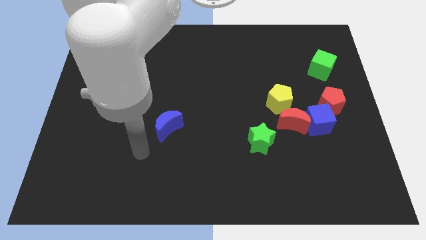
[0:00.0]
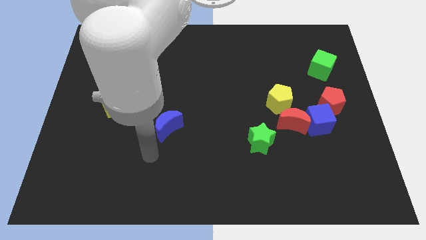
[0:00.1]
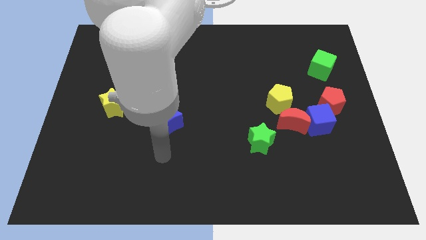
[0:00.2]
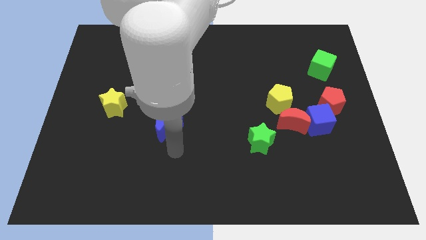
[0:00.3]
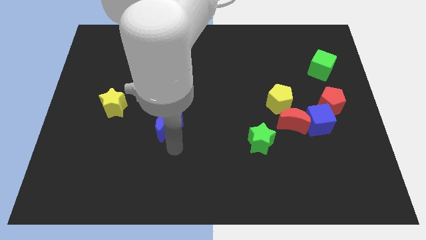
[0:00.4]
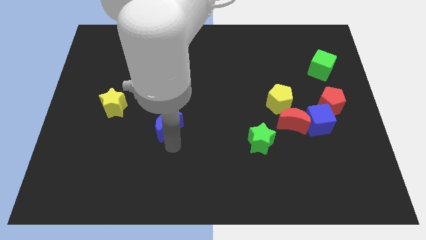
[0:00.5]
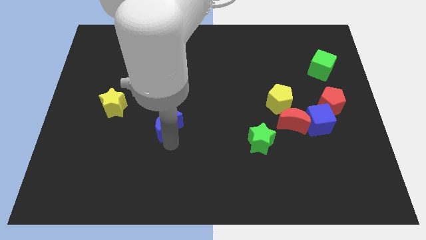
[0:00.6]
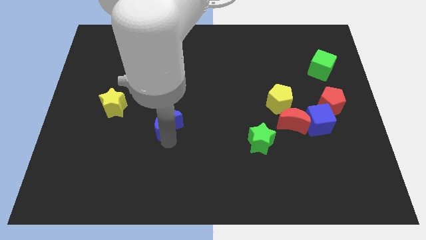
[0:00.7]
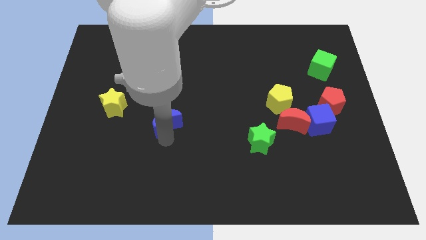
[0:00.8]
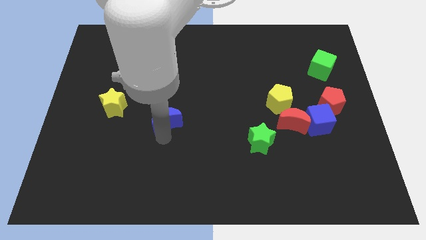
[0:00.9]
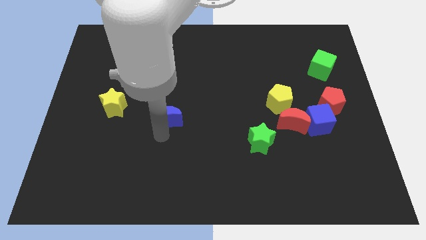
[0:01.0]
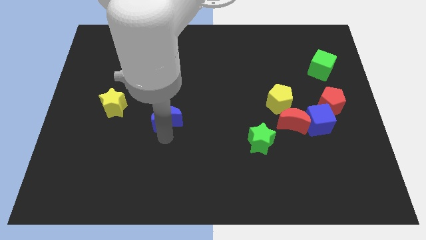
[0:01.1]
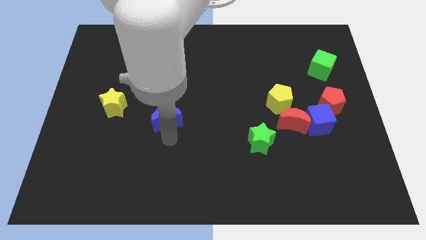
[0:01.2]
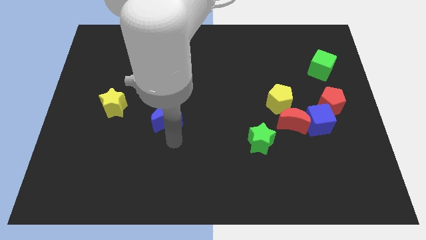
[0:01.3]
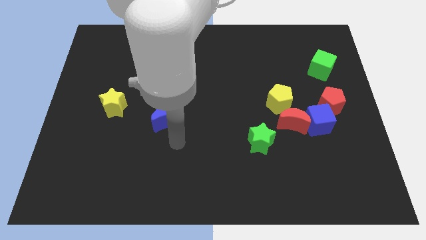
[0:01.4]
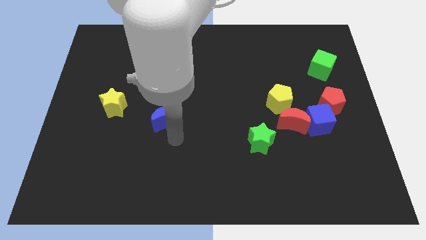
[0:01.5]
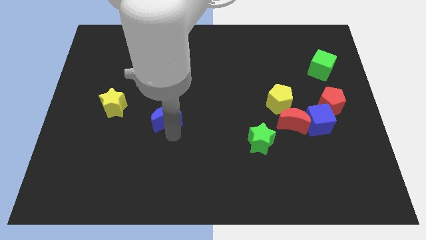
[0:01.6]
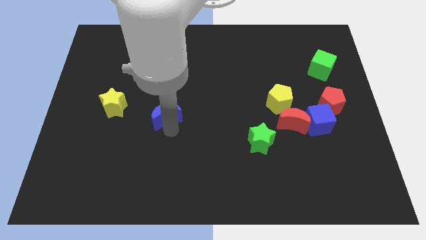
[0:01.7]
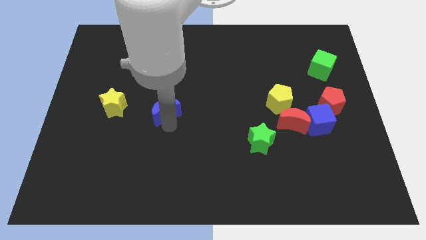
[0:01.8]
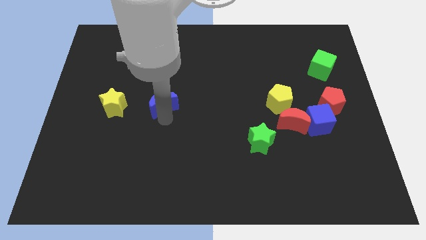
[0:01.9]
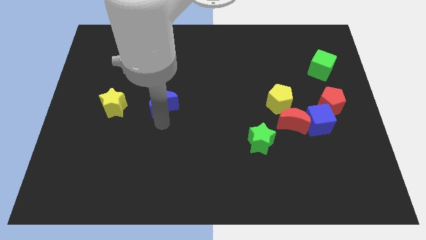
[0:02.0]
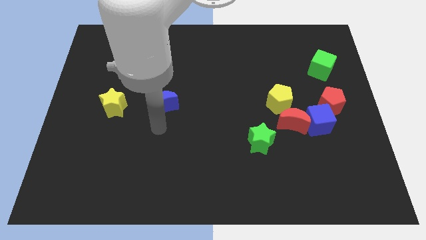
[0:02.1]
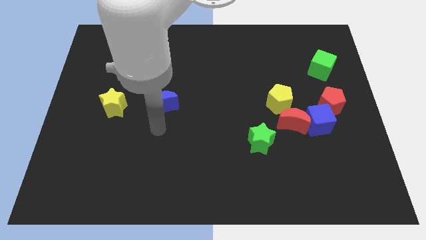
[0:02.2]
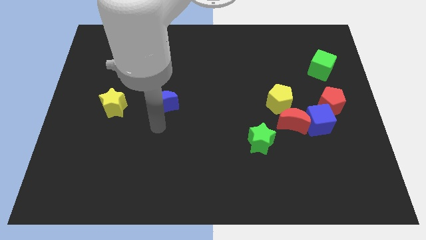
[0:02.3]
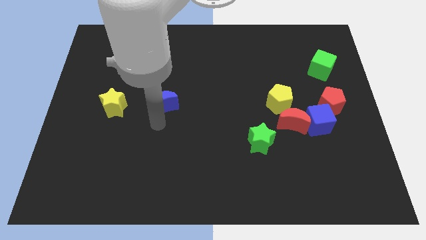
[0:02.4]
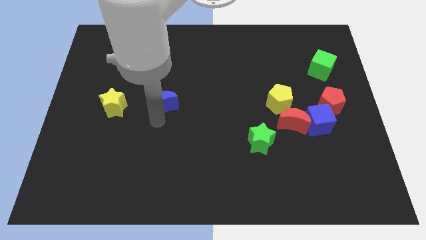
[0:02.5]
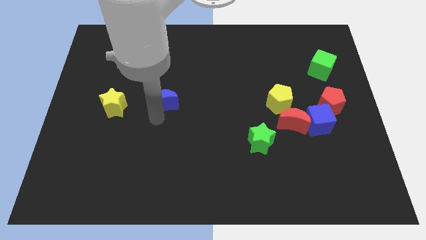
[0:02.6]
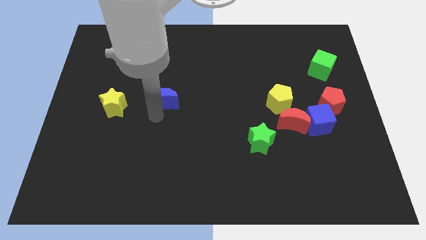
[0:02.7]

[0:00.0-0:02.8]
push the blue moon slightly up

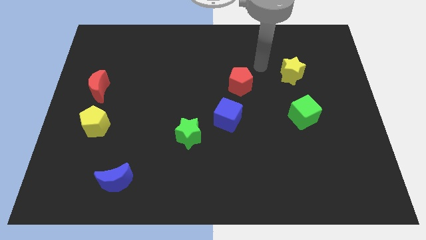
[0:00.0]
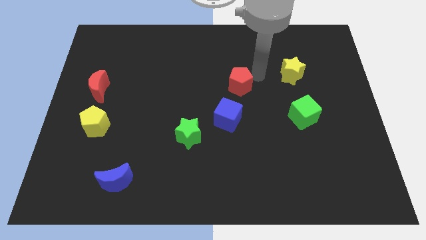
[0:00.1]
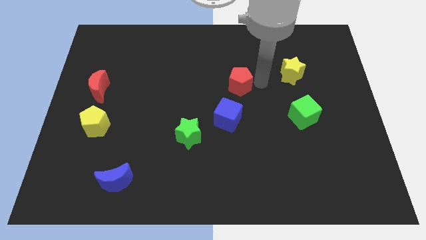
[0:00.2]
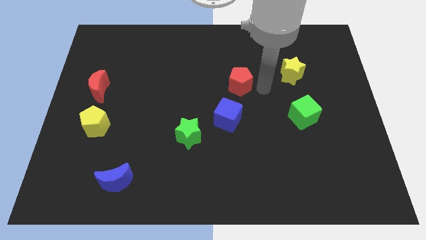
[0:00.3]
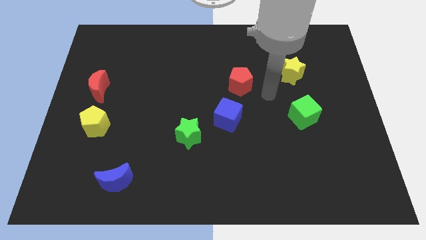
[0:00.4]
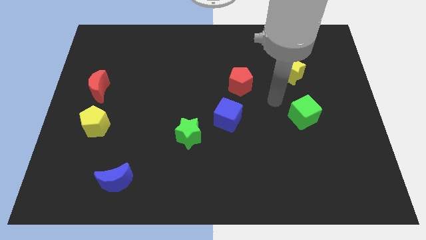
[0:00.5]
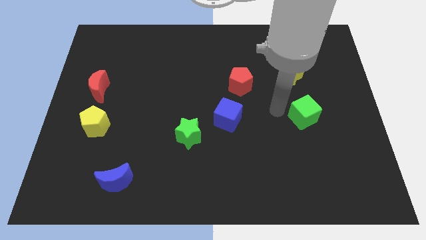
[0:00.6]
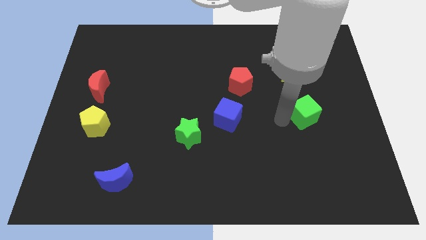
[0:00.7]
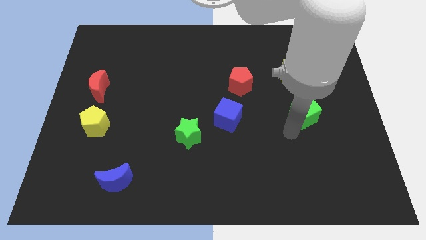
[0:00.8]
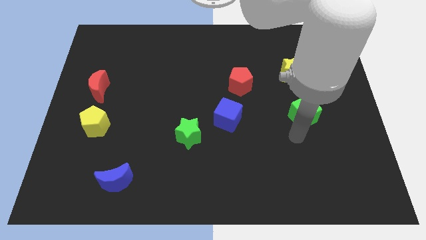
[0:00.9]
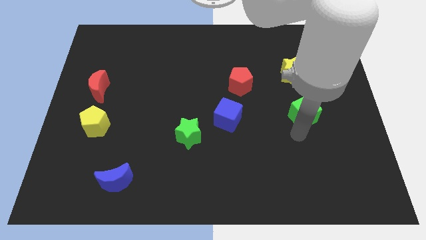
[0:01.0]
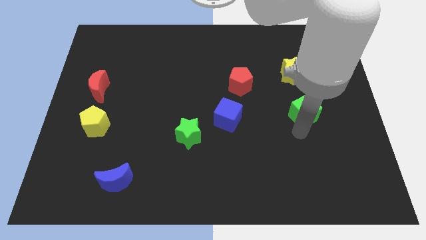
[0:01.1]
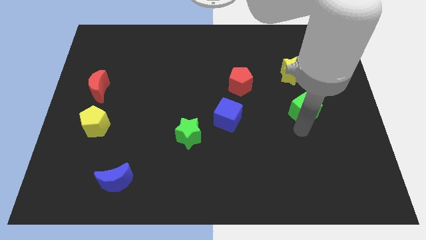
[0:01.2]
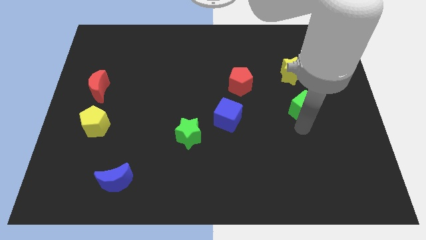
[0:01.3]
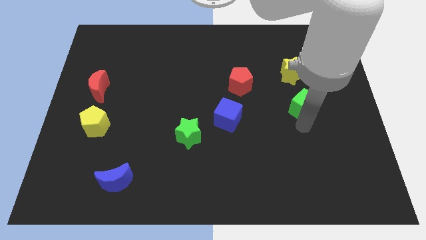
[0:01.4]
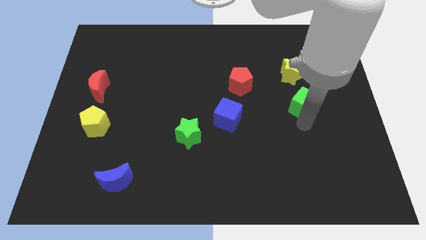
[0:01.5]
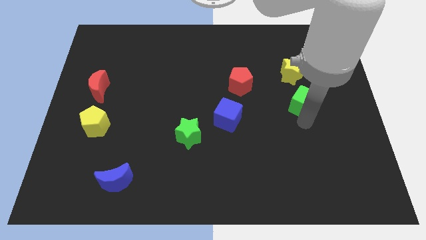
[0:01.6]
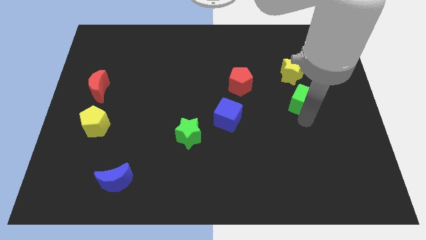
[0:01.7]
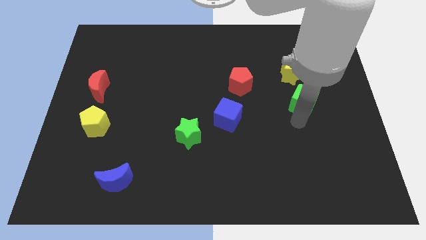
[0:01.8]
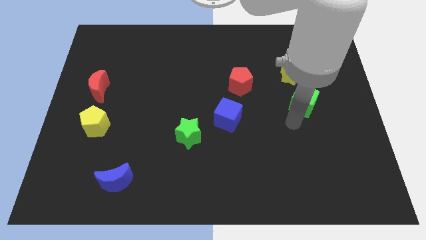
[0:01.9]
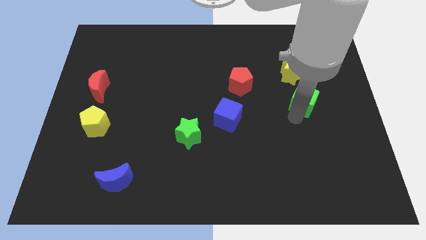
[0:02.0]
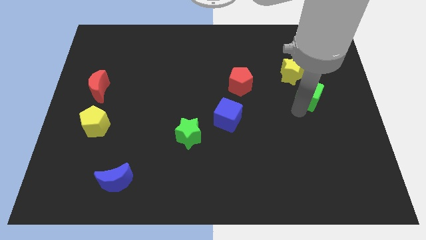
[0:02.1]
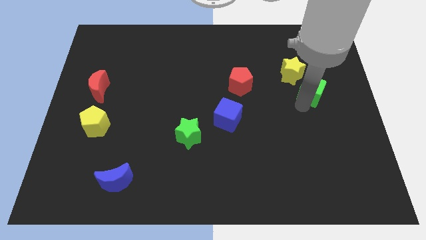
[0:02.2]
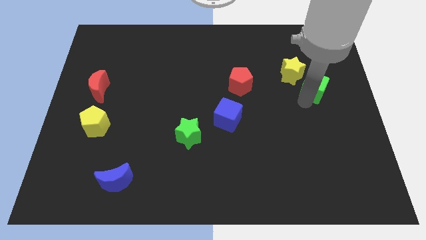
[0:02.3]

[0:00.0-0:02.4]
slightly push the green cube up

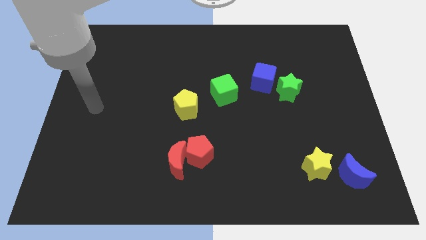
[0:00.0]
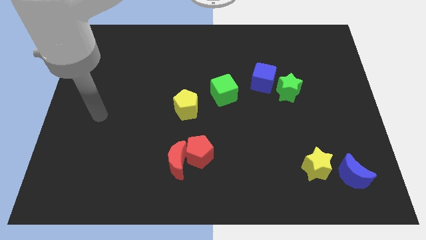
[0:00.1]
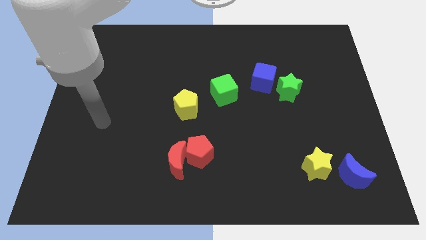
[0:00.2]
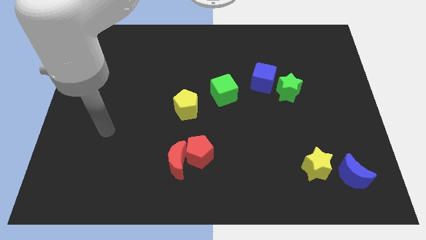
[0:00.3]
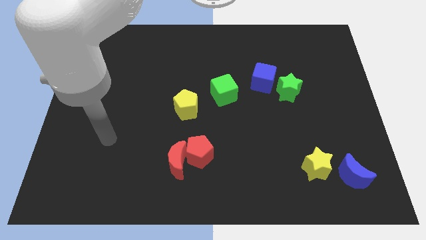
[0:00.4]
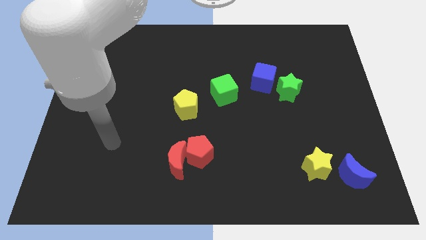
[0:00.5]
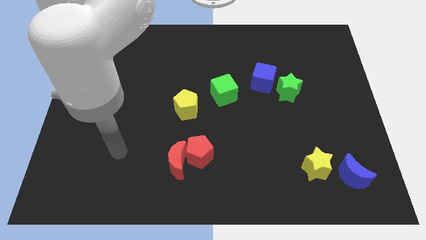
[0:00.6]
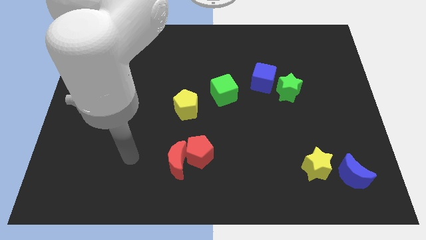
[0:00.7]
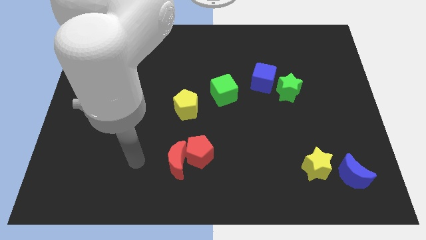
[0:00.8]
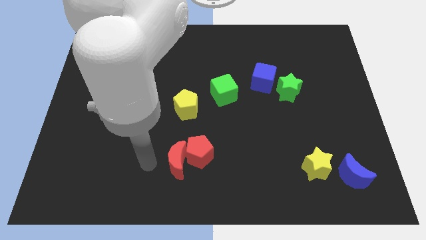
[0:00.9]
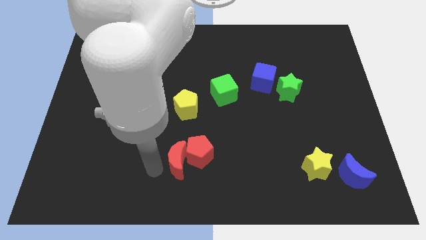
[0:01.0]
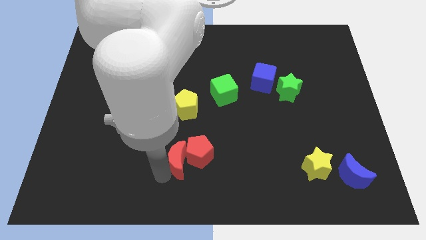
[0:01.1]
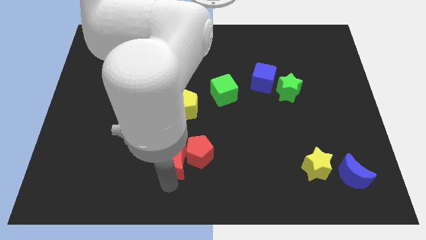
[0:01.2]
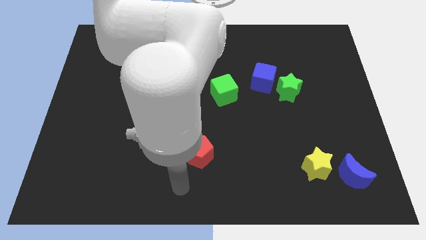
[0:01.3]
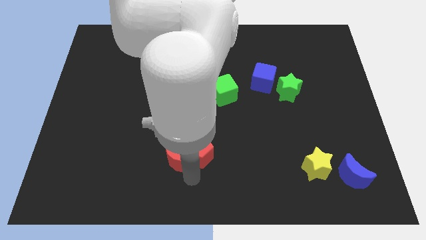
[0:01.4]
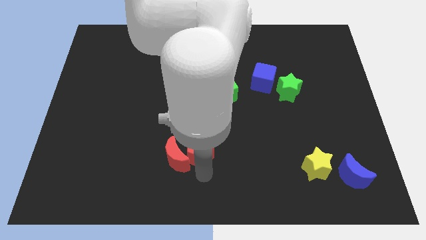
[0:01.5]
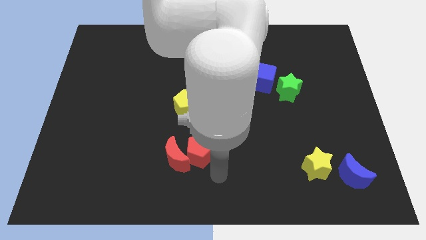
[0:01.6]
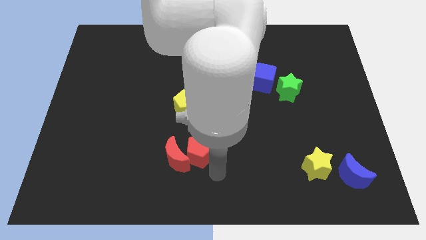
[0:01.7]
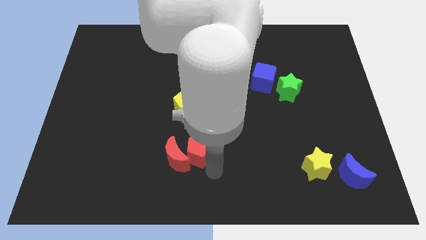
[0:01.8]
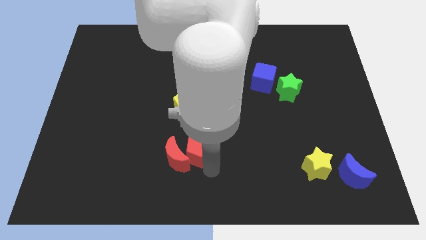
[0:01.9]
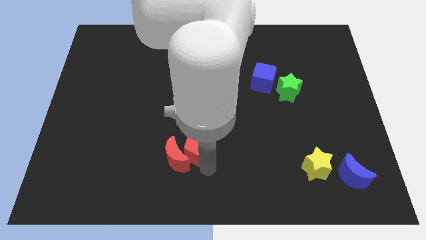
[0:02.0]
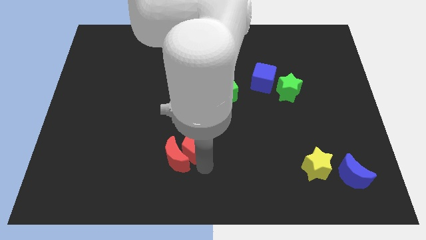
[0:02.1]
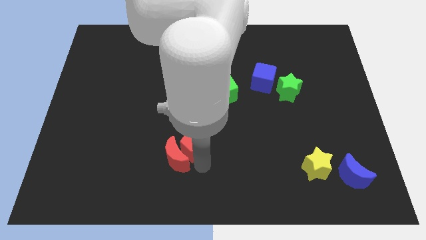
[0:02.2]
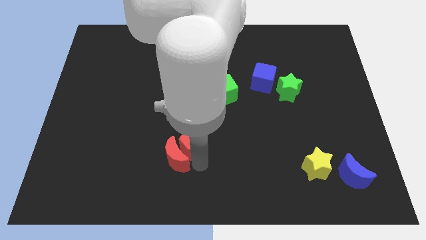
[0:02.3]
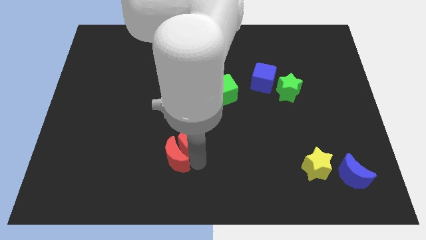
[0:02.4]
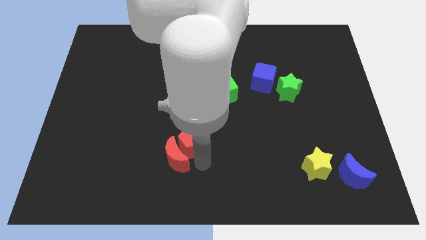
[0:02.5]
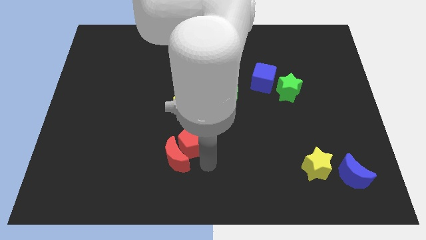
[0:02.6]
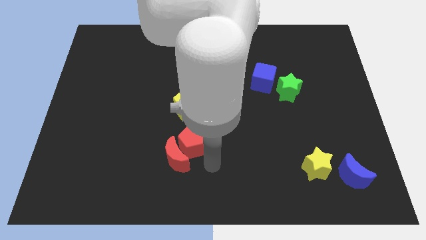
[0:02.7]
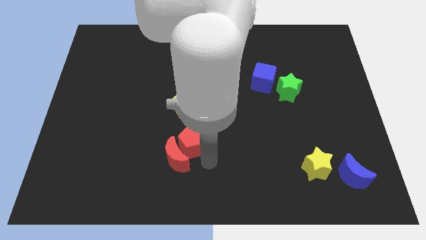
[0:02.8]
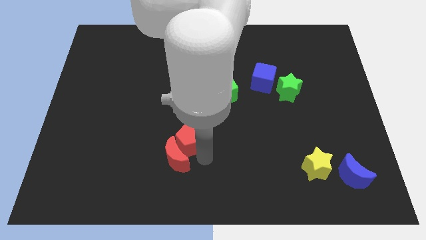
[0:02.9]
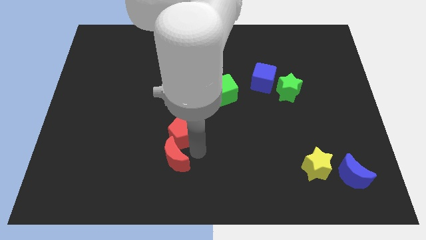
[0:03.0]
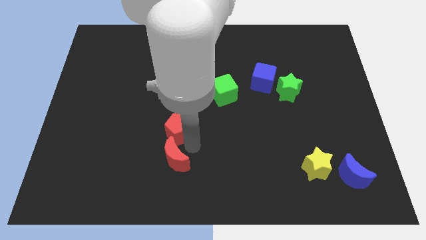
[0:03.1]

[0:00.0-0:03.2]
slightly move the red pentagon up and left diagonally
